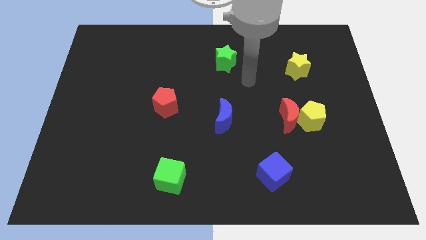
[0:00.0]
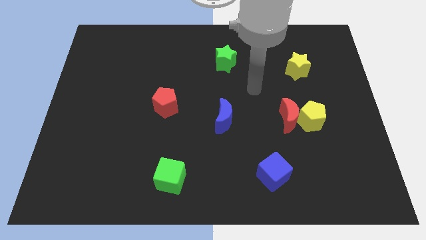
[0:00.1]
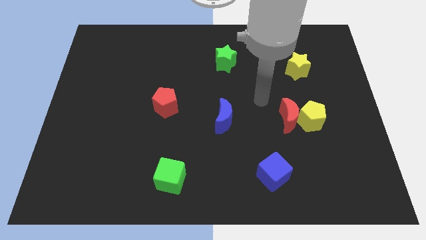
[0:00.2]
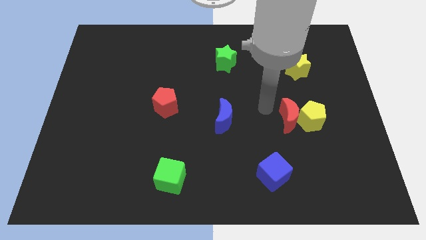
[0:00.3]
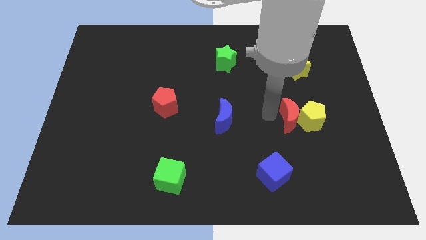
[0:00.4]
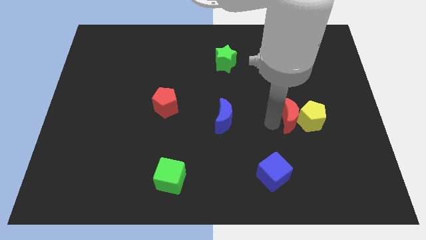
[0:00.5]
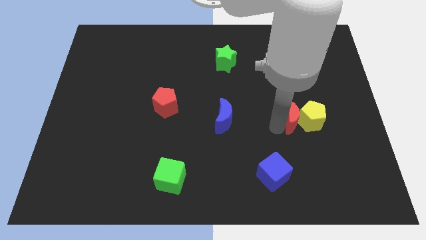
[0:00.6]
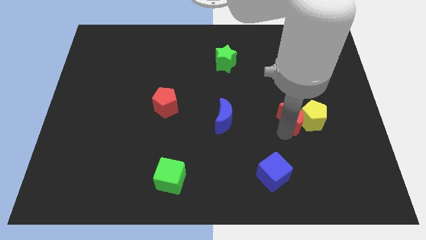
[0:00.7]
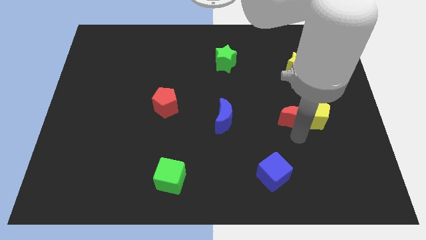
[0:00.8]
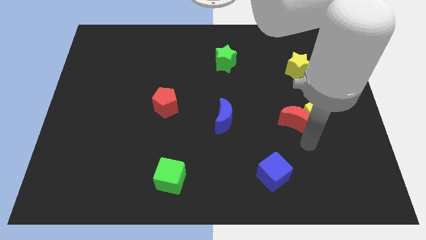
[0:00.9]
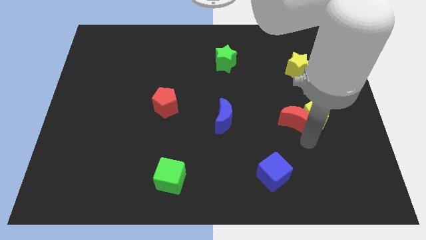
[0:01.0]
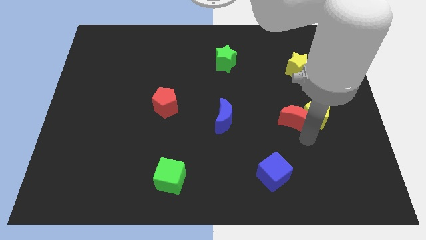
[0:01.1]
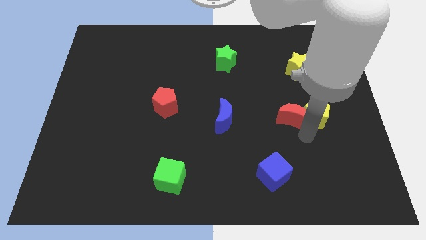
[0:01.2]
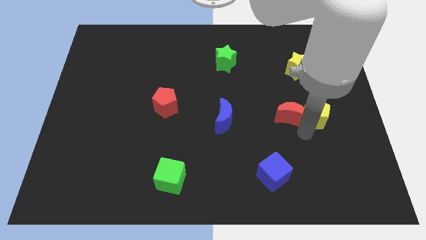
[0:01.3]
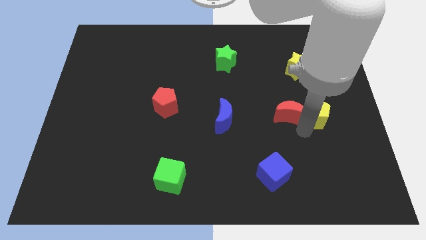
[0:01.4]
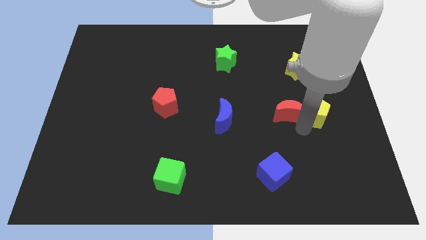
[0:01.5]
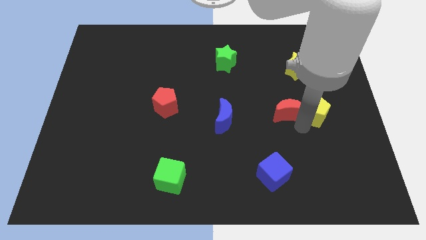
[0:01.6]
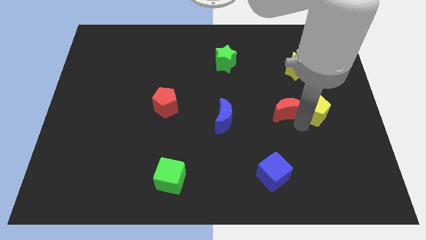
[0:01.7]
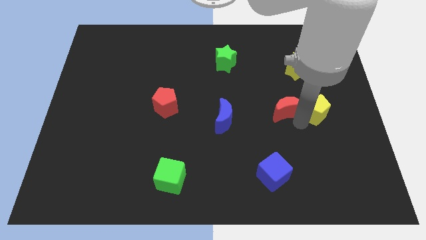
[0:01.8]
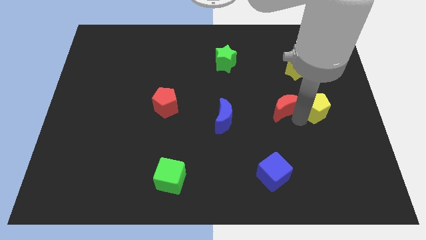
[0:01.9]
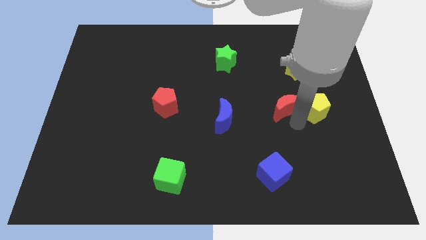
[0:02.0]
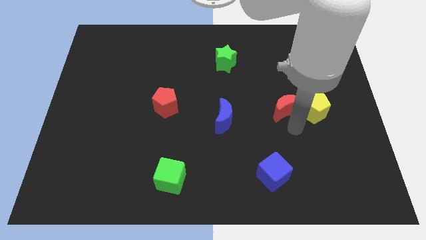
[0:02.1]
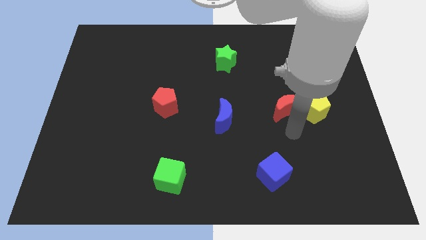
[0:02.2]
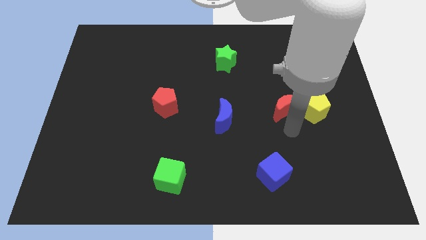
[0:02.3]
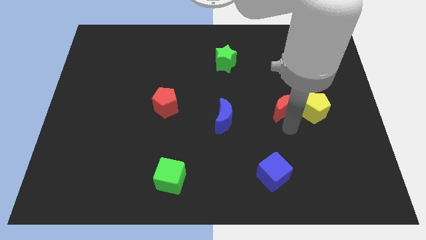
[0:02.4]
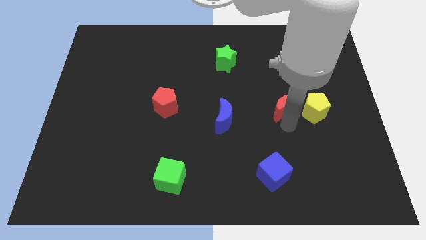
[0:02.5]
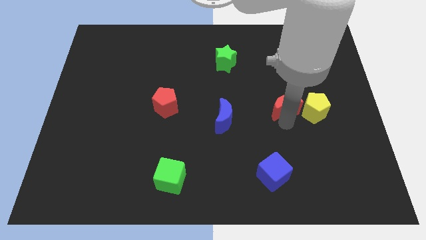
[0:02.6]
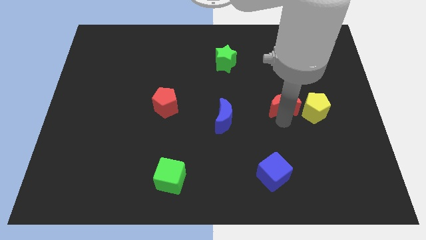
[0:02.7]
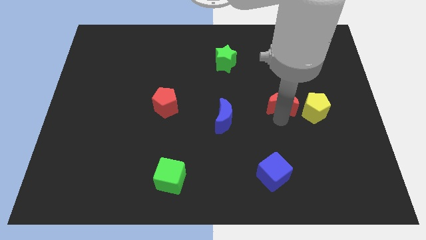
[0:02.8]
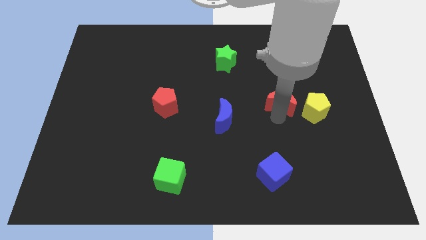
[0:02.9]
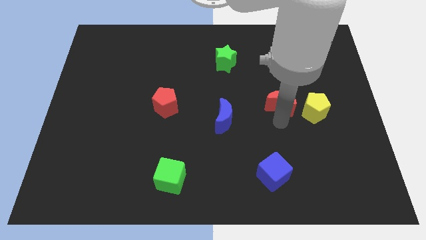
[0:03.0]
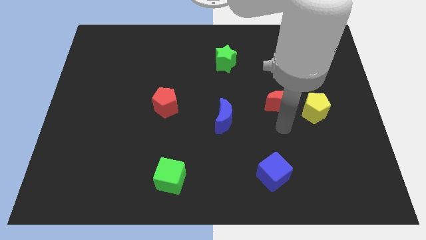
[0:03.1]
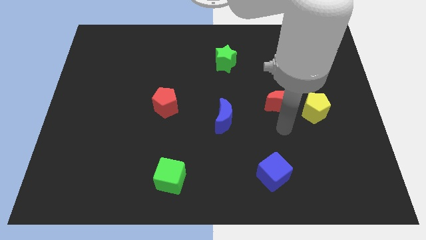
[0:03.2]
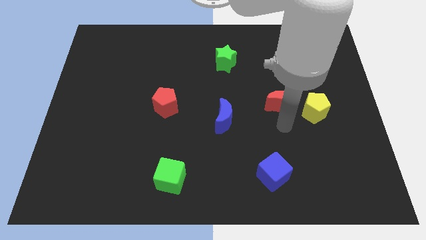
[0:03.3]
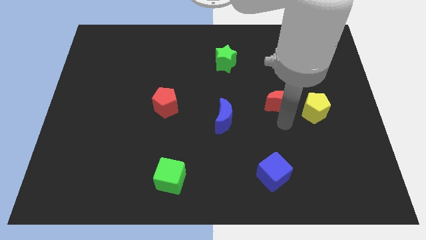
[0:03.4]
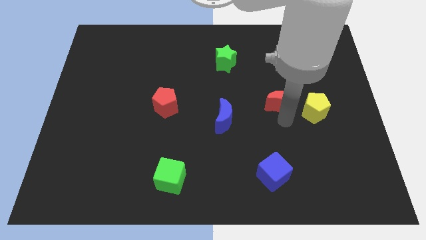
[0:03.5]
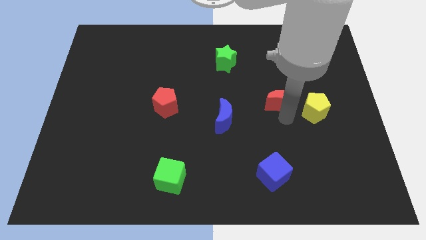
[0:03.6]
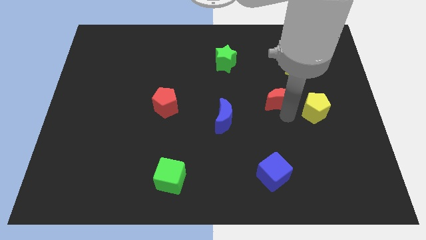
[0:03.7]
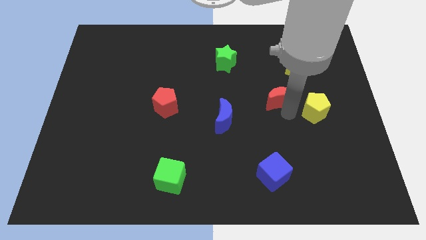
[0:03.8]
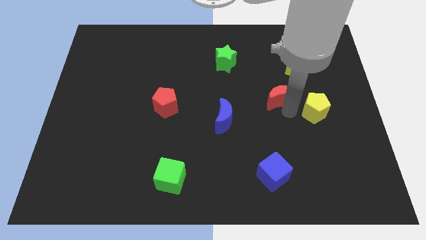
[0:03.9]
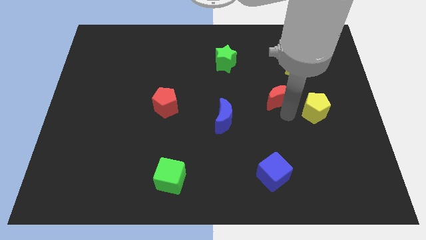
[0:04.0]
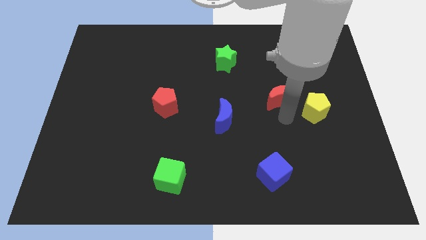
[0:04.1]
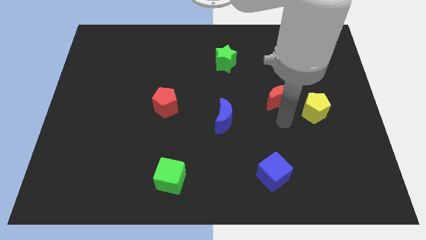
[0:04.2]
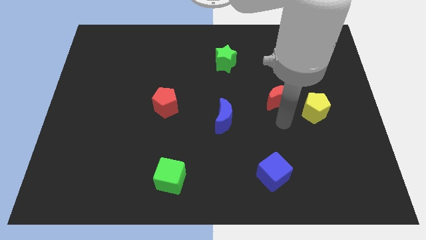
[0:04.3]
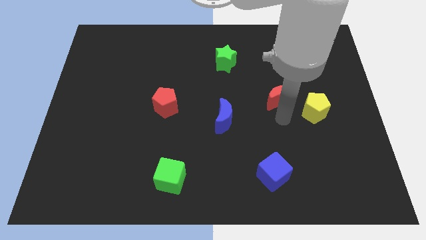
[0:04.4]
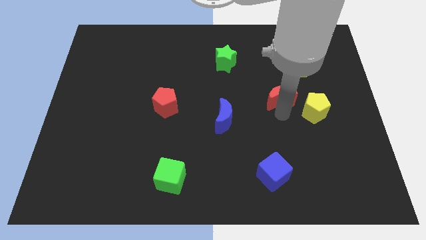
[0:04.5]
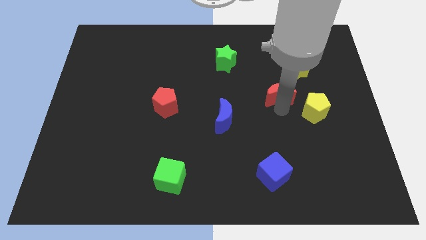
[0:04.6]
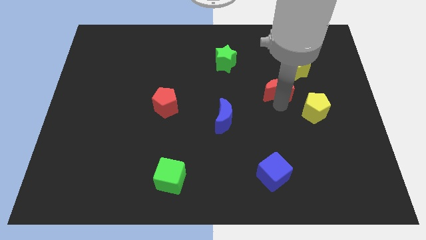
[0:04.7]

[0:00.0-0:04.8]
slightly push the red moon upwards

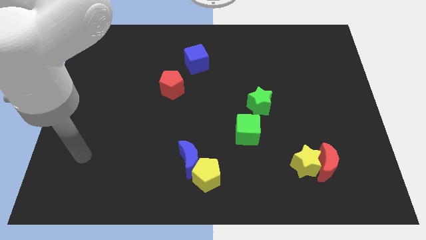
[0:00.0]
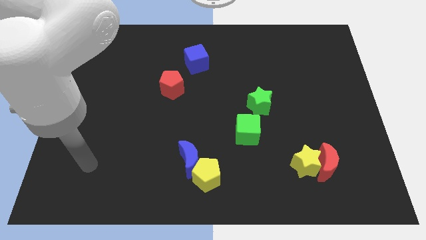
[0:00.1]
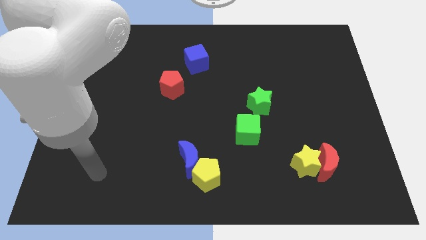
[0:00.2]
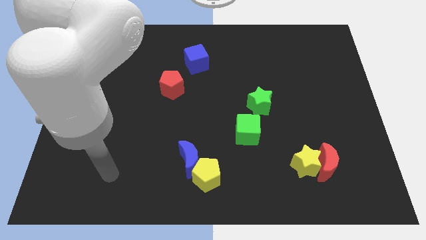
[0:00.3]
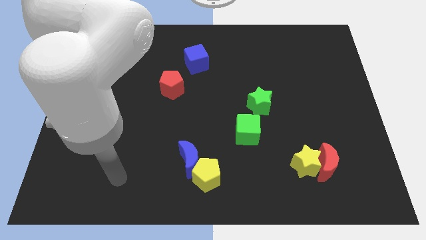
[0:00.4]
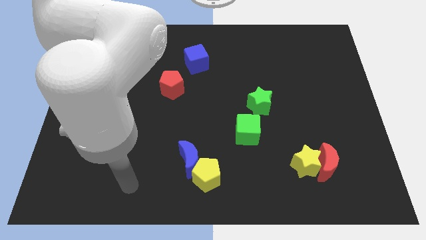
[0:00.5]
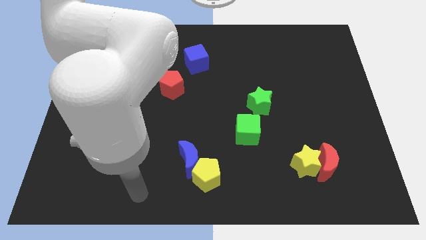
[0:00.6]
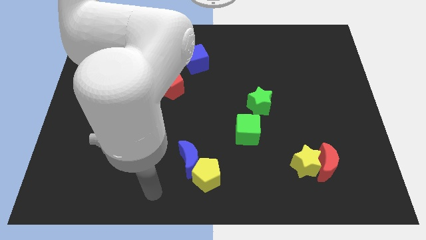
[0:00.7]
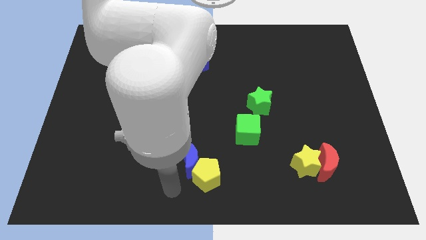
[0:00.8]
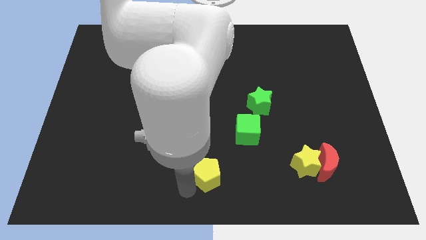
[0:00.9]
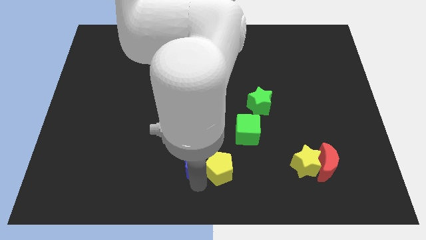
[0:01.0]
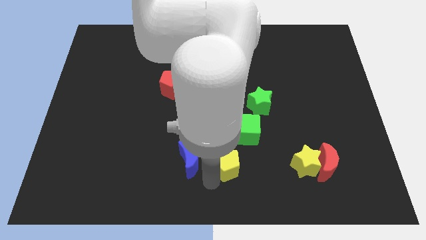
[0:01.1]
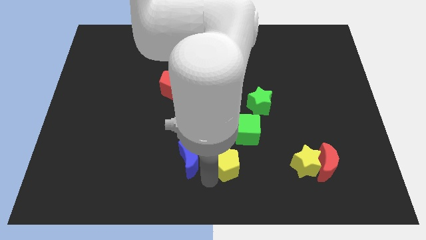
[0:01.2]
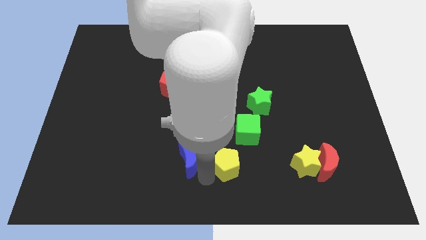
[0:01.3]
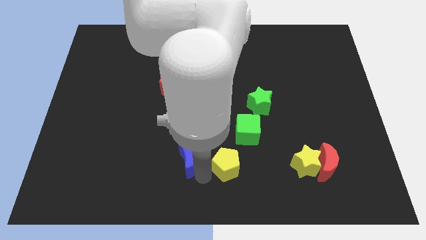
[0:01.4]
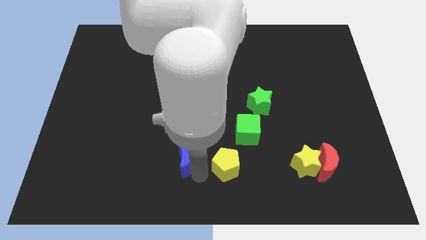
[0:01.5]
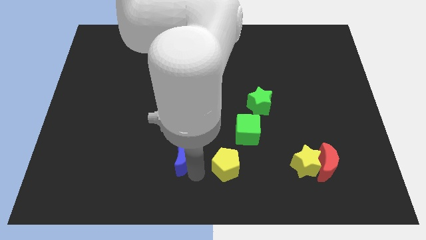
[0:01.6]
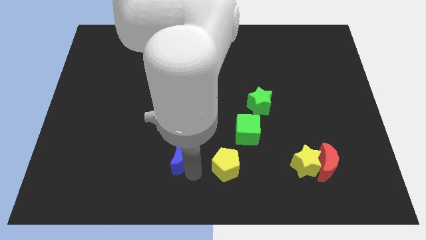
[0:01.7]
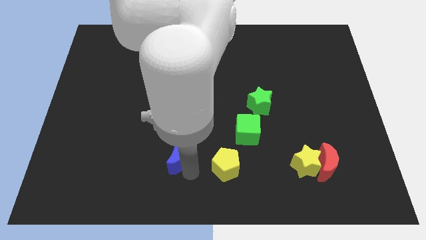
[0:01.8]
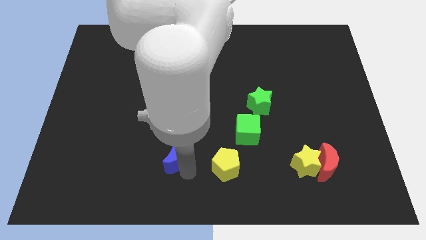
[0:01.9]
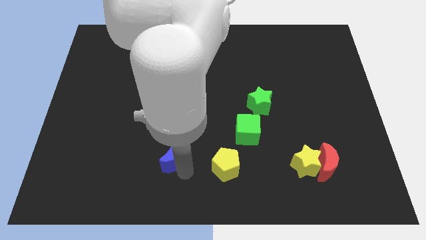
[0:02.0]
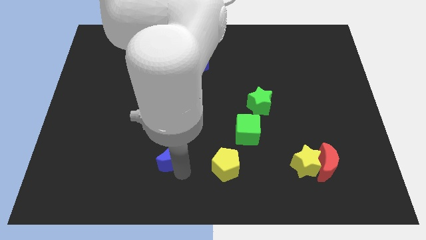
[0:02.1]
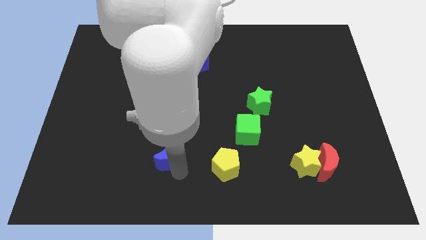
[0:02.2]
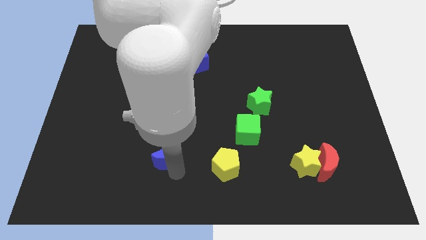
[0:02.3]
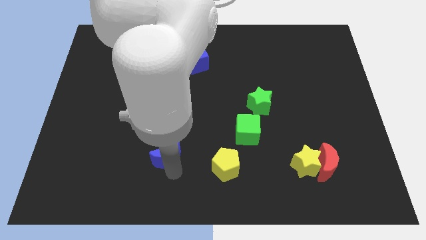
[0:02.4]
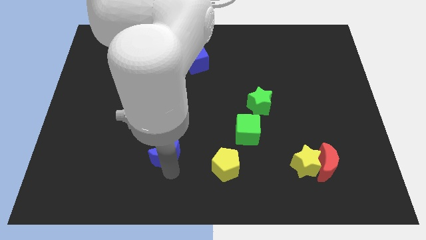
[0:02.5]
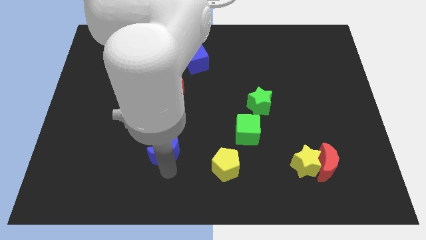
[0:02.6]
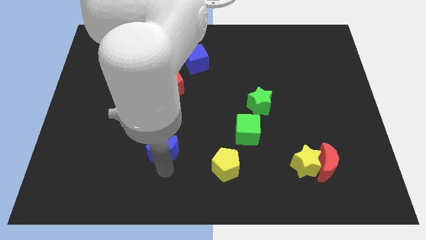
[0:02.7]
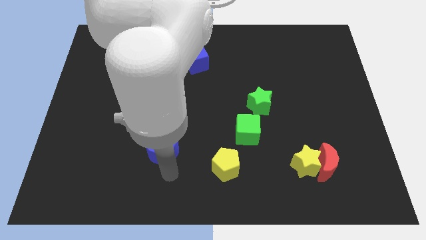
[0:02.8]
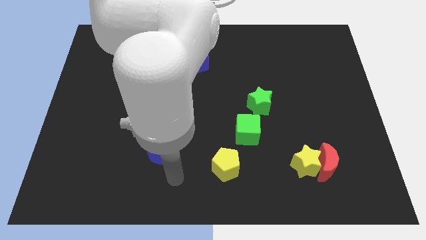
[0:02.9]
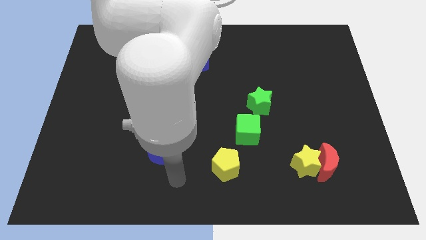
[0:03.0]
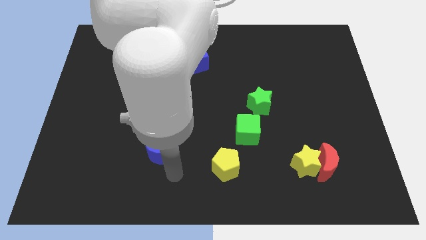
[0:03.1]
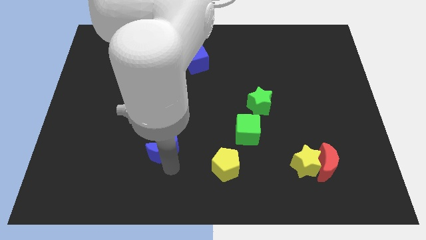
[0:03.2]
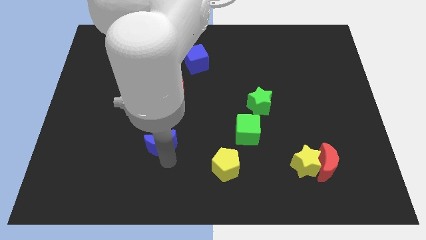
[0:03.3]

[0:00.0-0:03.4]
slightly slide the blue moon diagonally upwards and left
